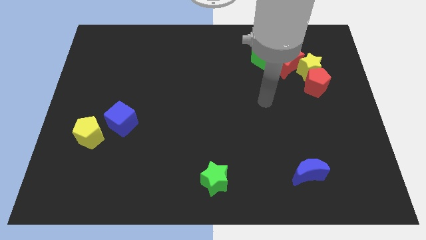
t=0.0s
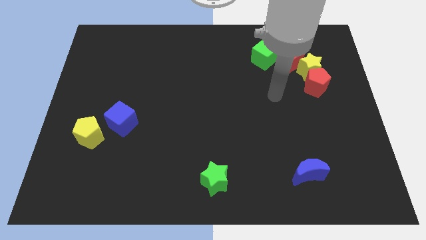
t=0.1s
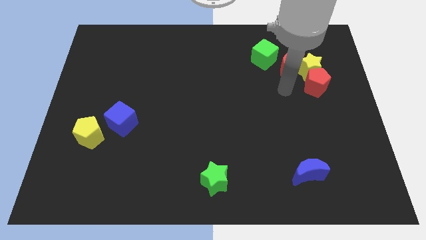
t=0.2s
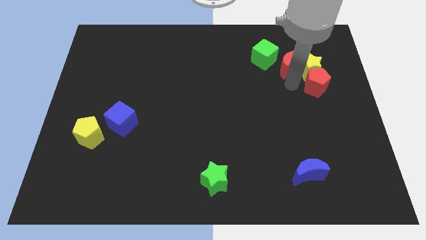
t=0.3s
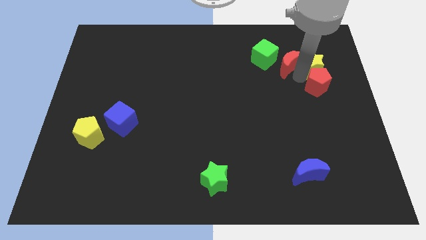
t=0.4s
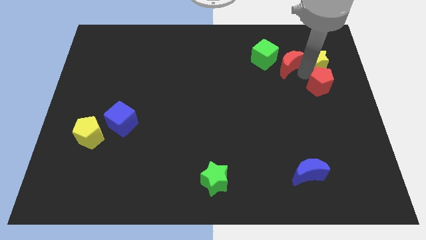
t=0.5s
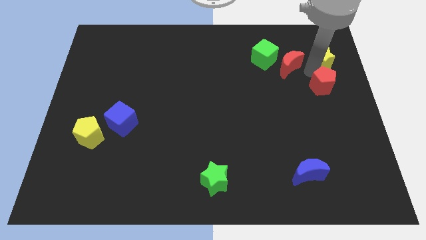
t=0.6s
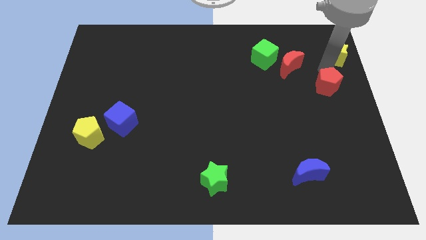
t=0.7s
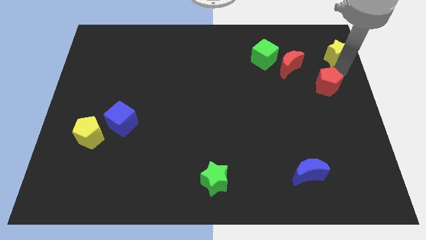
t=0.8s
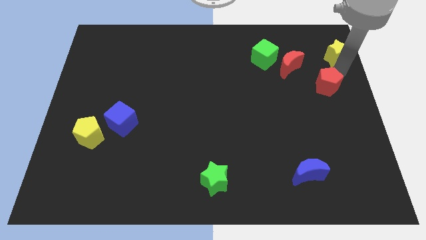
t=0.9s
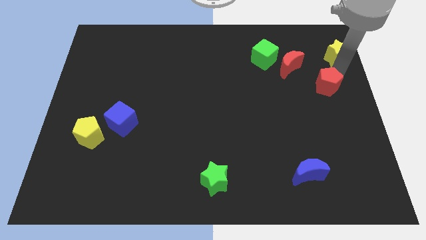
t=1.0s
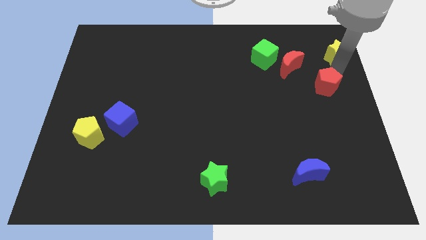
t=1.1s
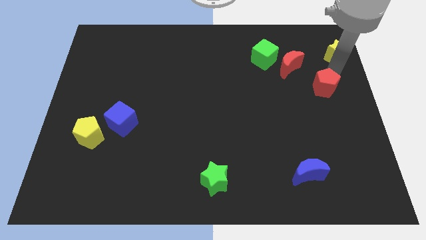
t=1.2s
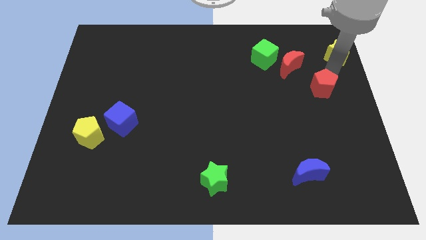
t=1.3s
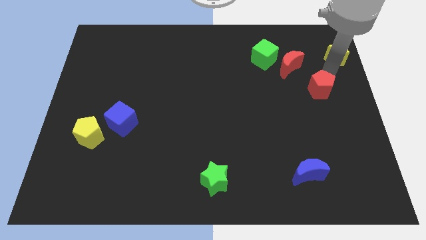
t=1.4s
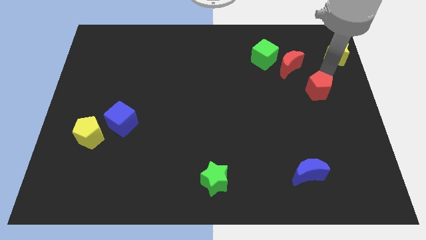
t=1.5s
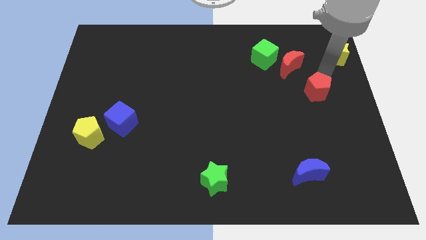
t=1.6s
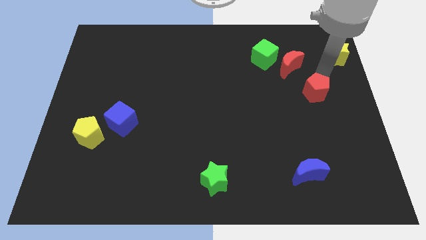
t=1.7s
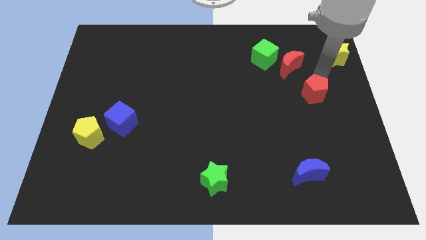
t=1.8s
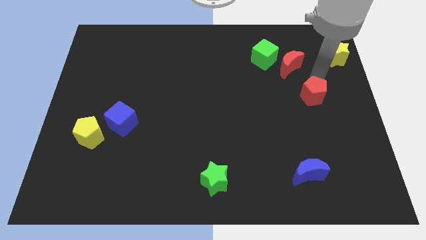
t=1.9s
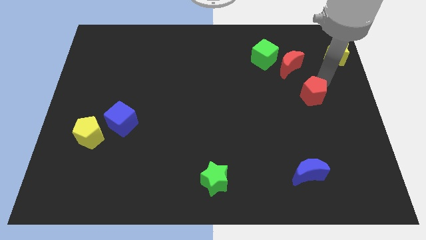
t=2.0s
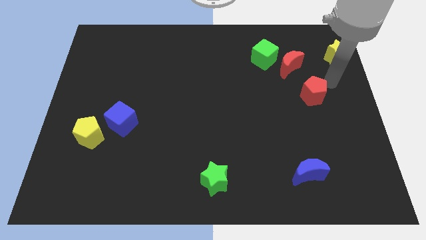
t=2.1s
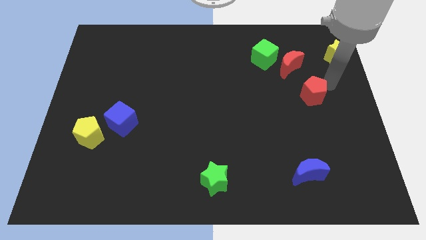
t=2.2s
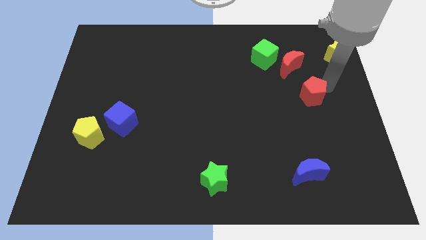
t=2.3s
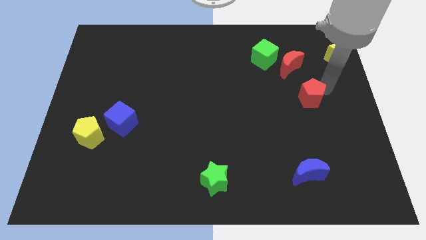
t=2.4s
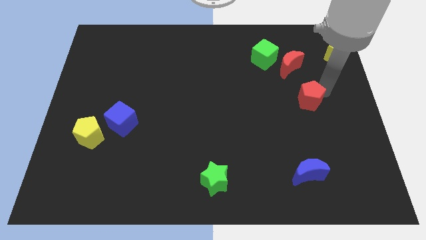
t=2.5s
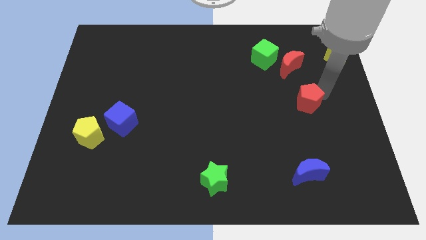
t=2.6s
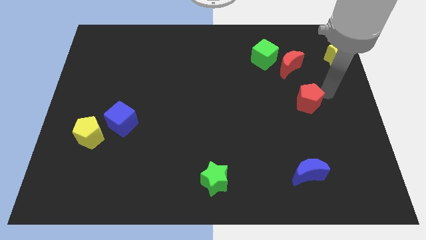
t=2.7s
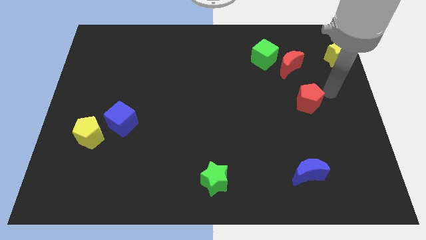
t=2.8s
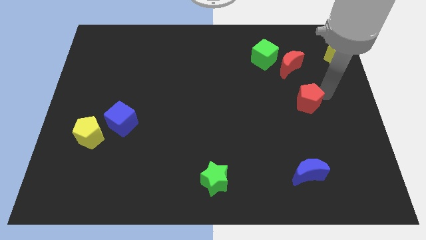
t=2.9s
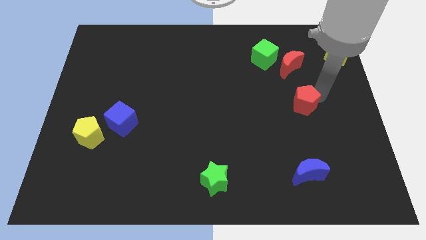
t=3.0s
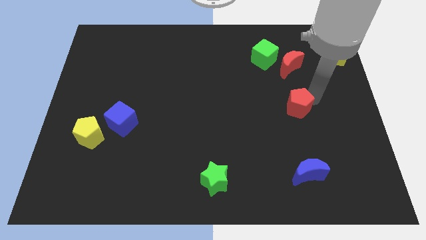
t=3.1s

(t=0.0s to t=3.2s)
move the red pentagon downwards and left diagonally a bit

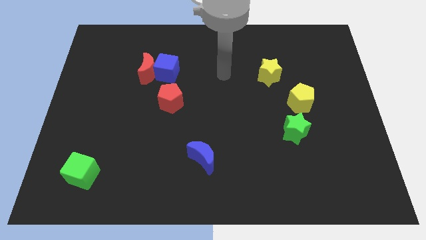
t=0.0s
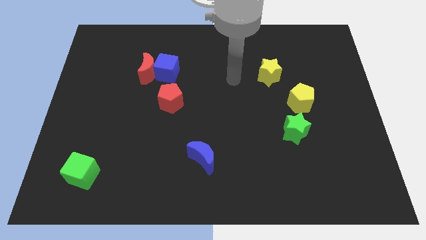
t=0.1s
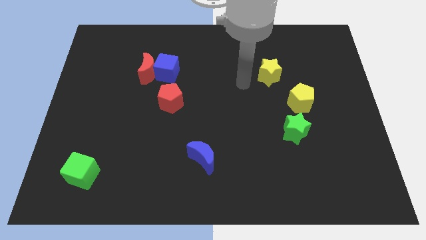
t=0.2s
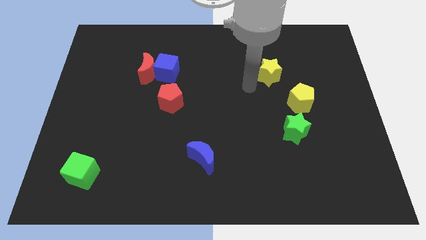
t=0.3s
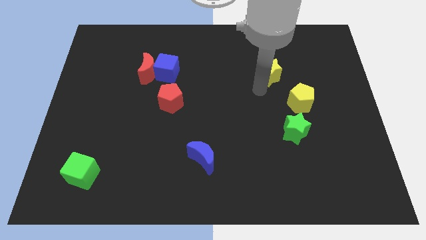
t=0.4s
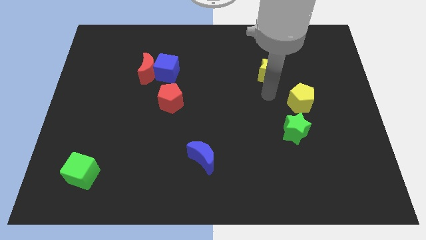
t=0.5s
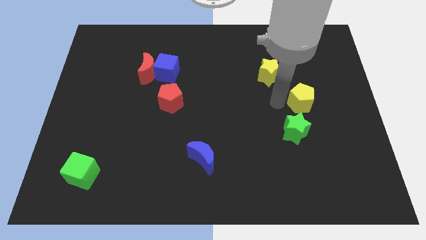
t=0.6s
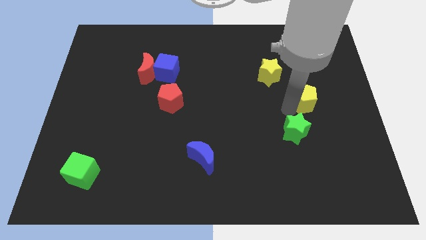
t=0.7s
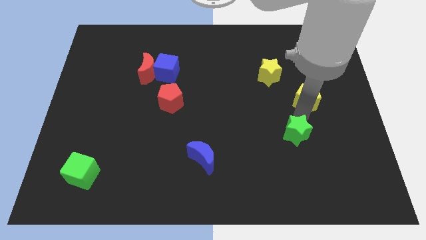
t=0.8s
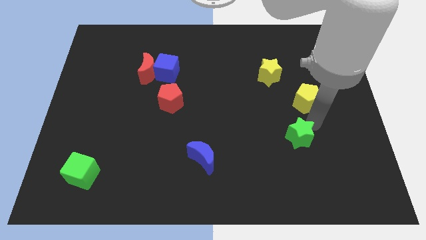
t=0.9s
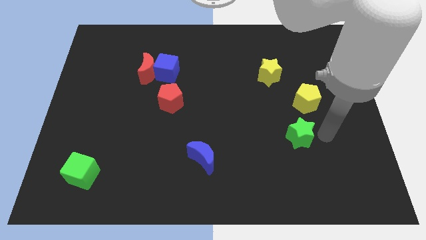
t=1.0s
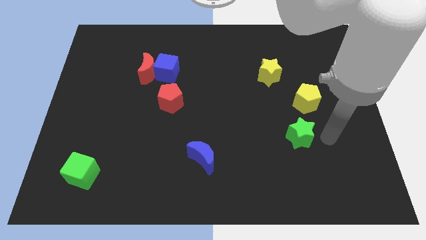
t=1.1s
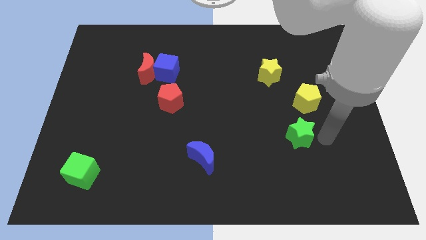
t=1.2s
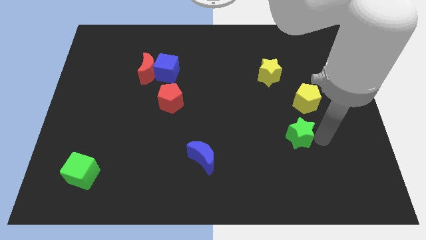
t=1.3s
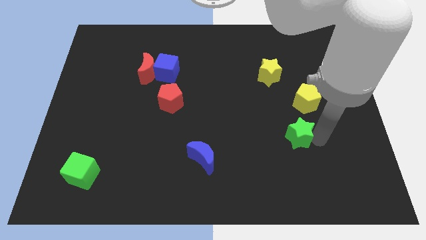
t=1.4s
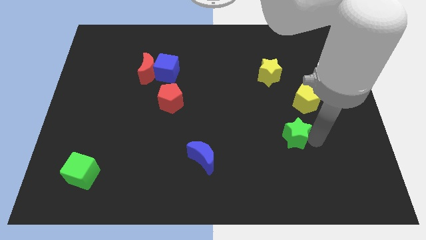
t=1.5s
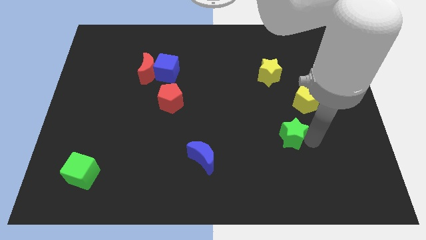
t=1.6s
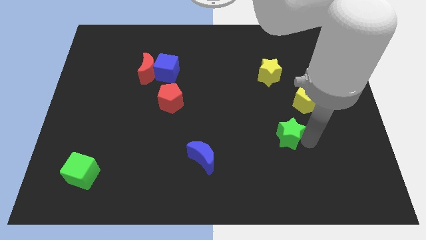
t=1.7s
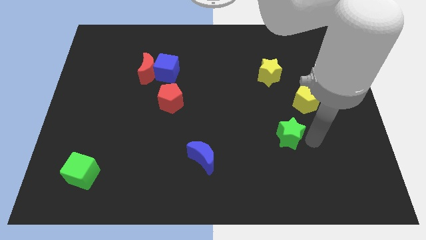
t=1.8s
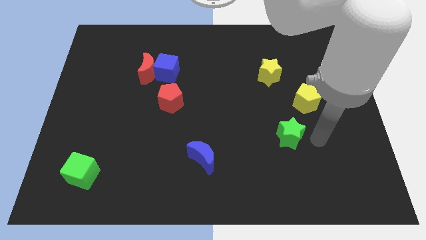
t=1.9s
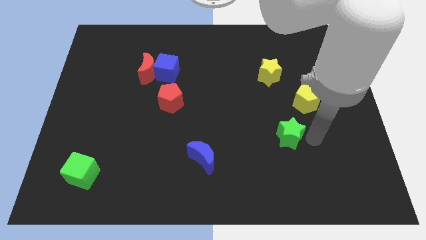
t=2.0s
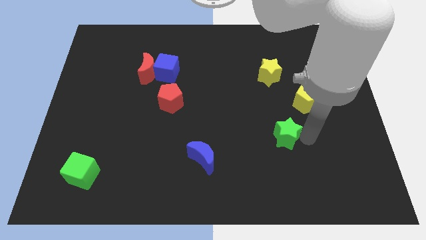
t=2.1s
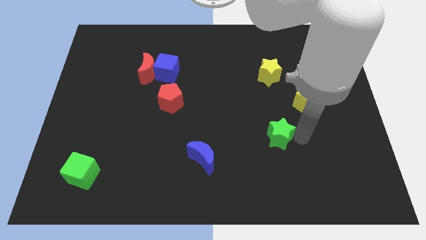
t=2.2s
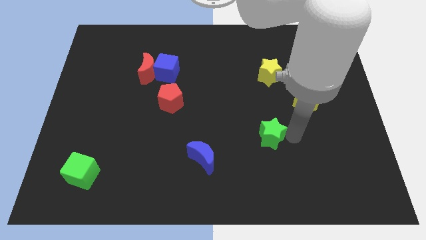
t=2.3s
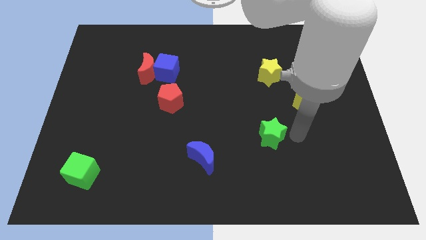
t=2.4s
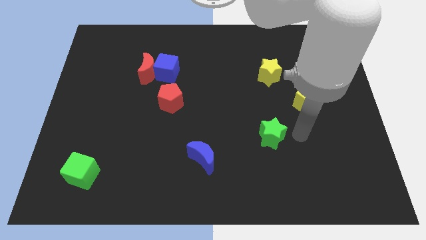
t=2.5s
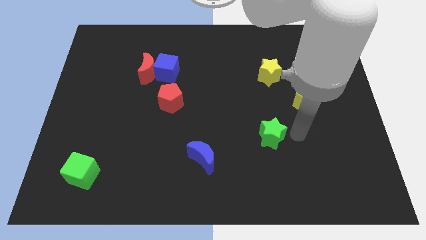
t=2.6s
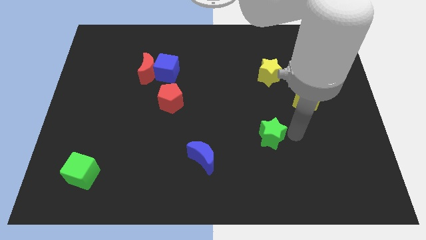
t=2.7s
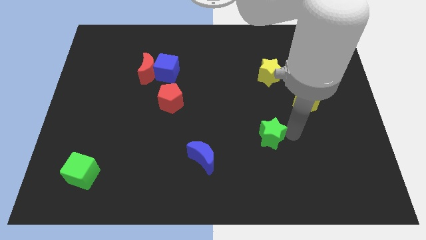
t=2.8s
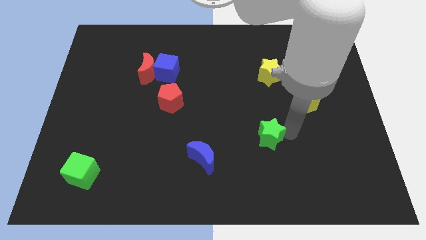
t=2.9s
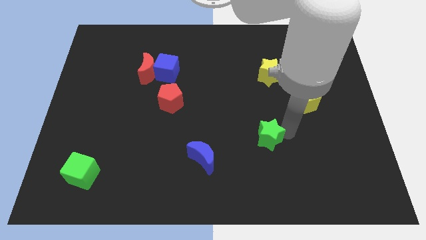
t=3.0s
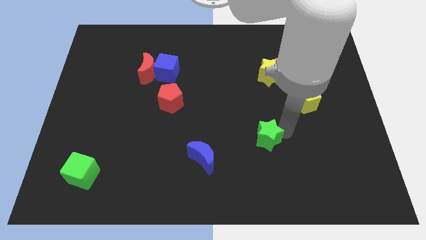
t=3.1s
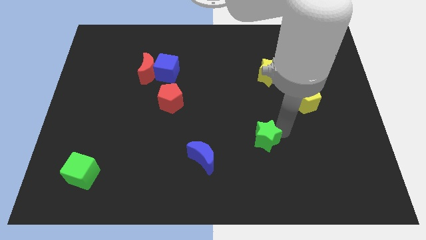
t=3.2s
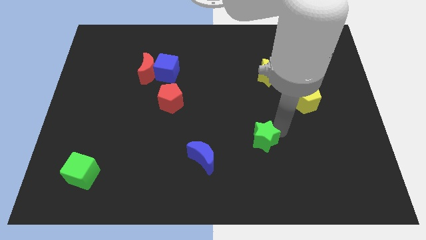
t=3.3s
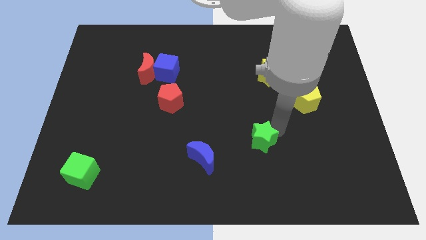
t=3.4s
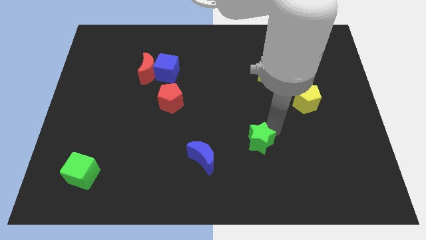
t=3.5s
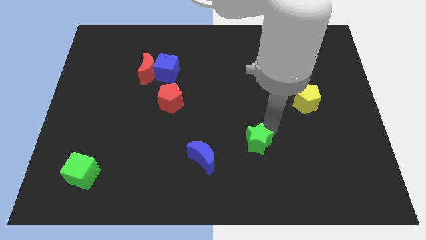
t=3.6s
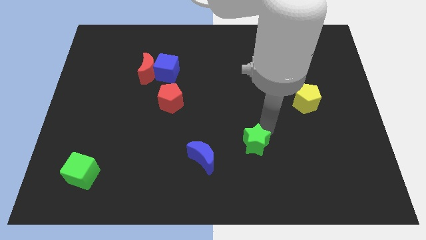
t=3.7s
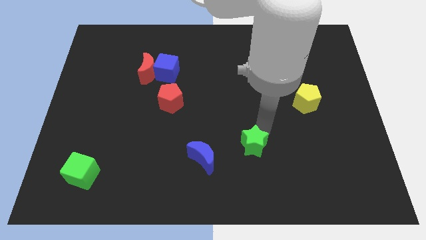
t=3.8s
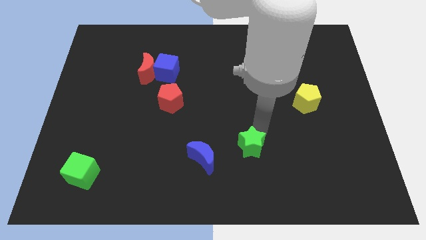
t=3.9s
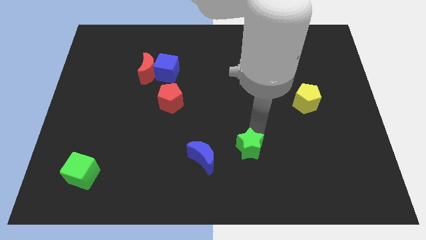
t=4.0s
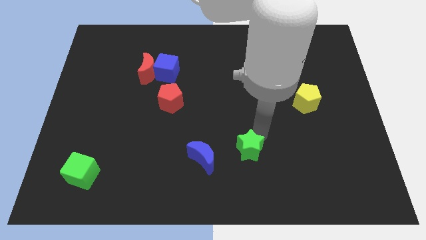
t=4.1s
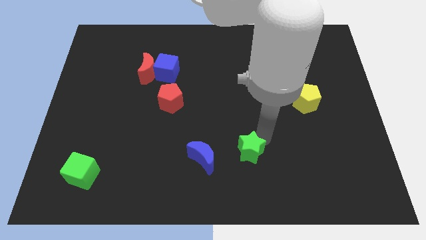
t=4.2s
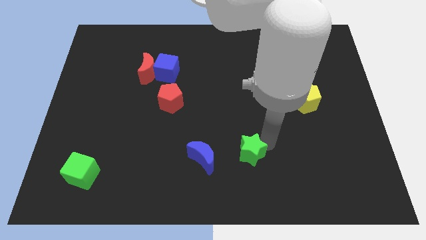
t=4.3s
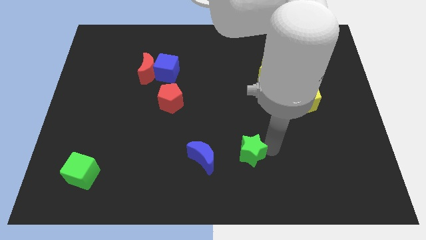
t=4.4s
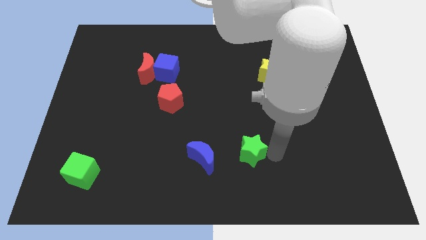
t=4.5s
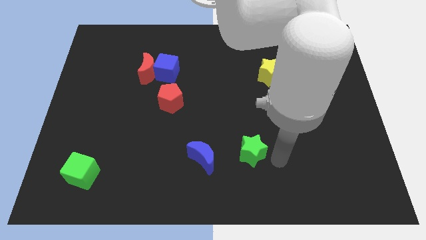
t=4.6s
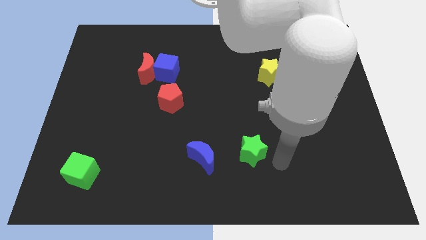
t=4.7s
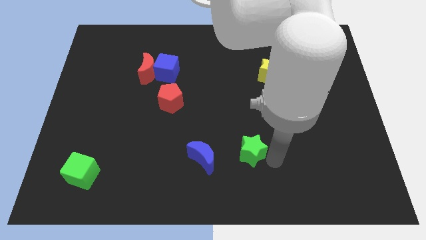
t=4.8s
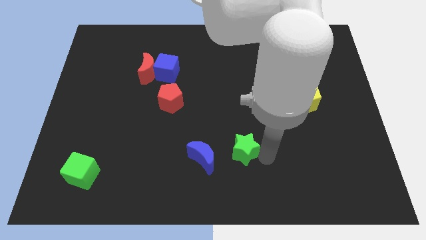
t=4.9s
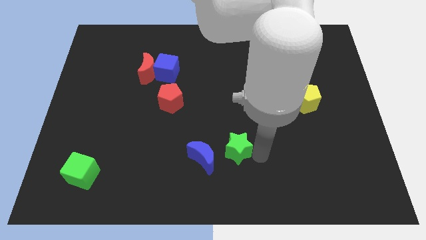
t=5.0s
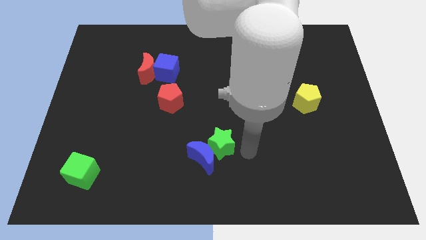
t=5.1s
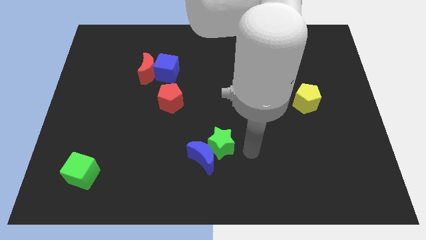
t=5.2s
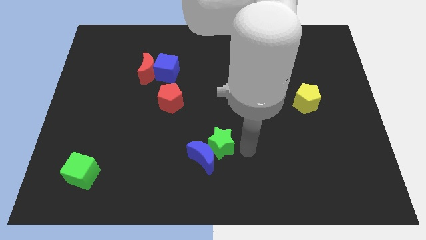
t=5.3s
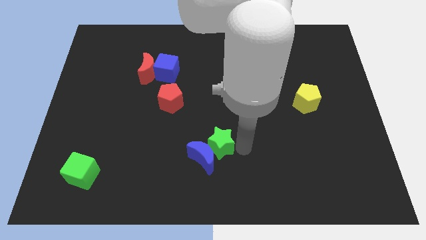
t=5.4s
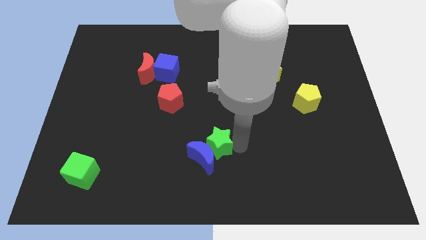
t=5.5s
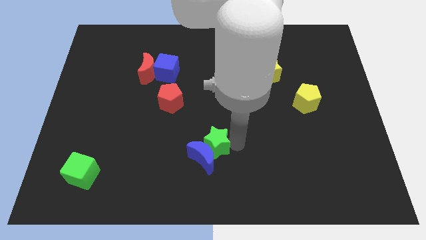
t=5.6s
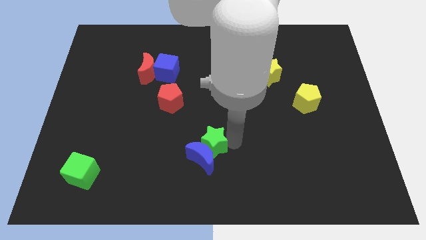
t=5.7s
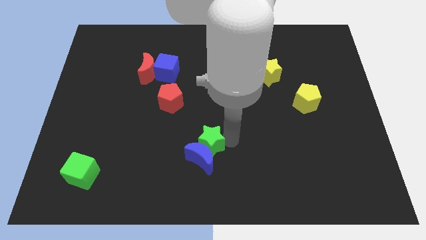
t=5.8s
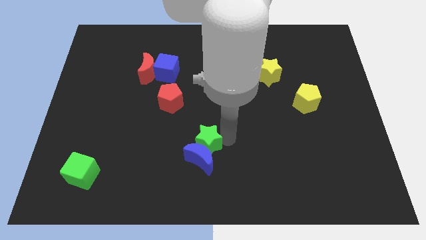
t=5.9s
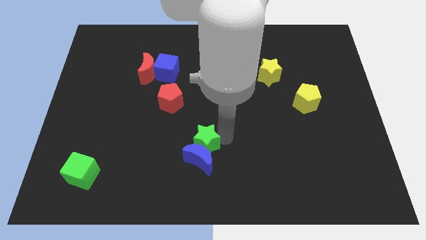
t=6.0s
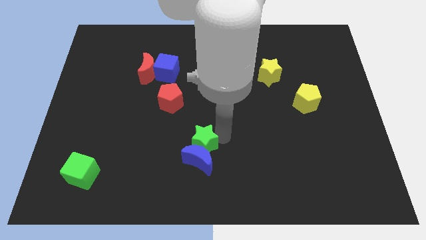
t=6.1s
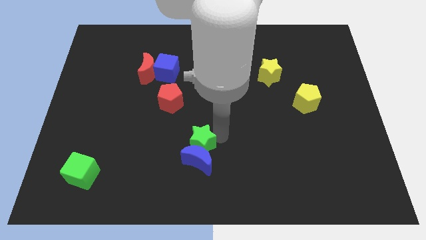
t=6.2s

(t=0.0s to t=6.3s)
move the green star left
